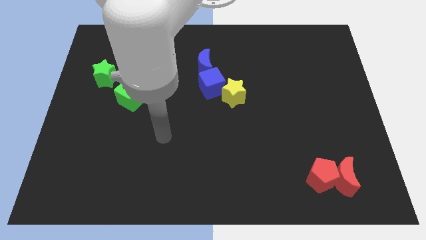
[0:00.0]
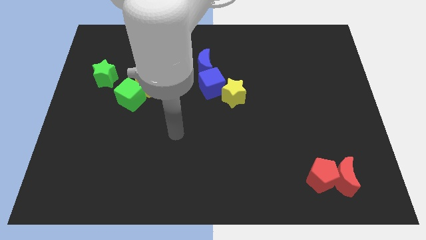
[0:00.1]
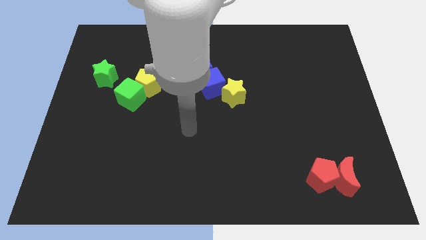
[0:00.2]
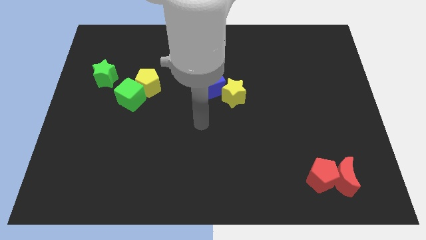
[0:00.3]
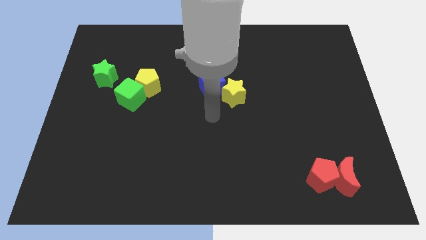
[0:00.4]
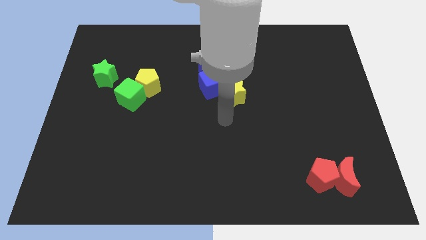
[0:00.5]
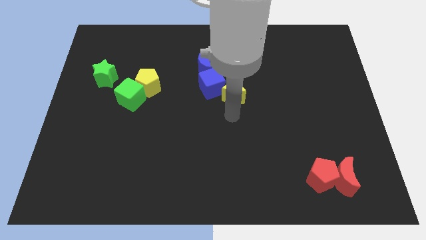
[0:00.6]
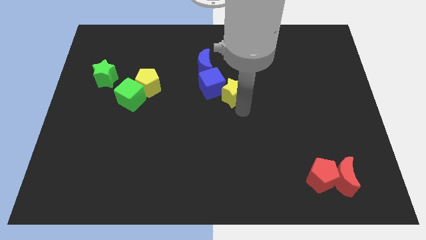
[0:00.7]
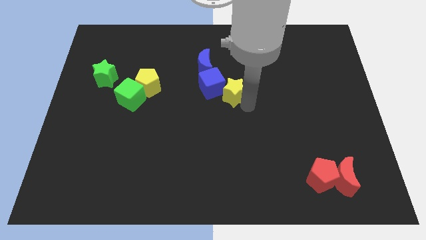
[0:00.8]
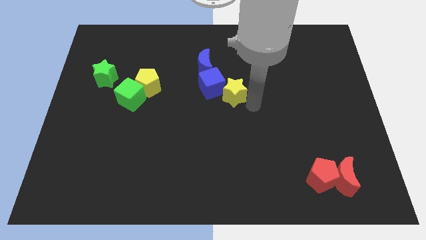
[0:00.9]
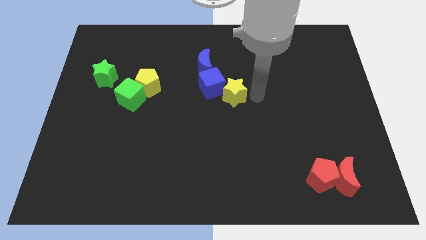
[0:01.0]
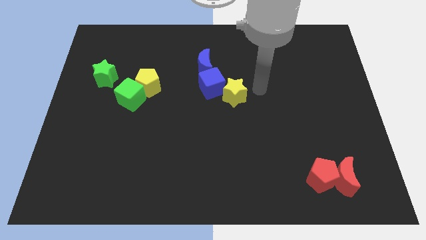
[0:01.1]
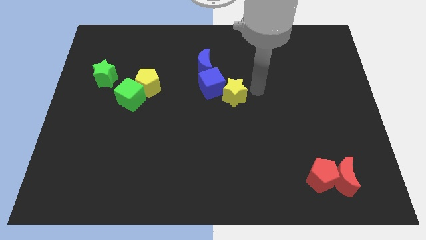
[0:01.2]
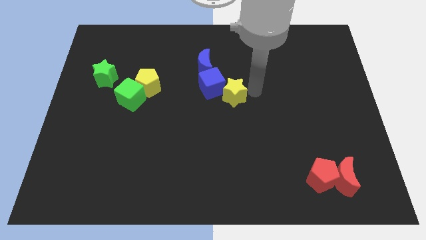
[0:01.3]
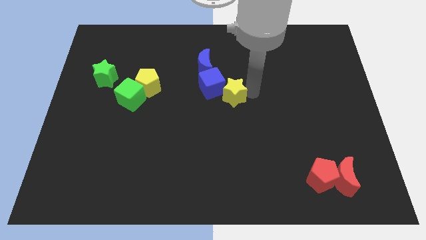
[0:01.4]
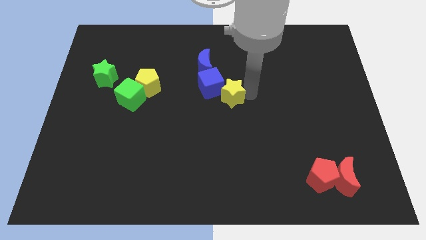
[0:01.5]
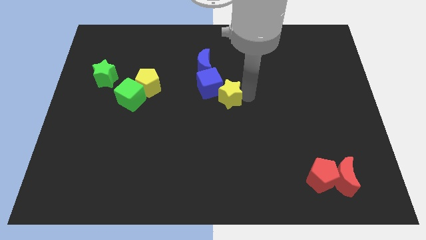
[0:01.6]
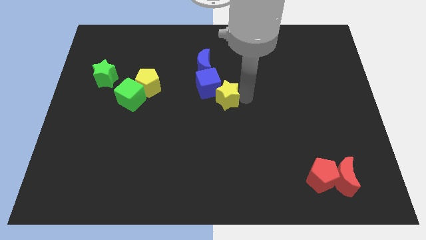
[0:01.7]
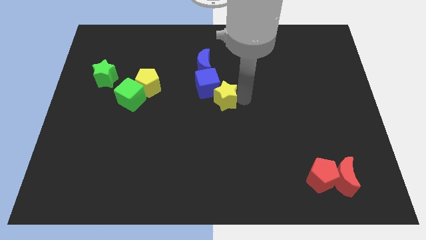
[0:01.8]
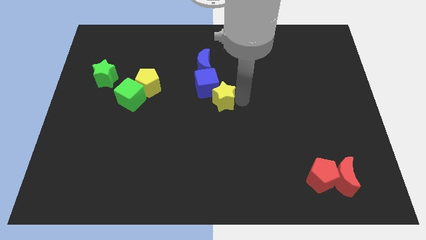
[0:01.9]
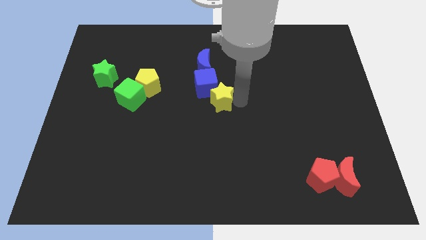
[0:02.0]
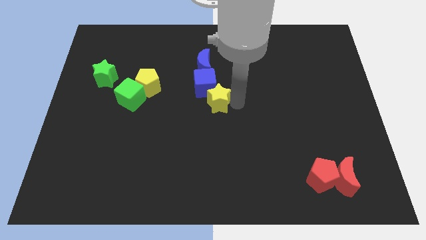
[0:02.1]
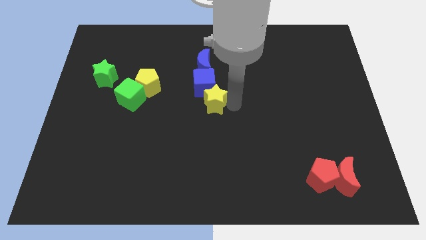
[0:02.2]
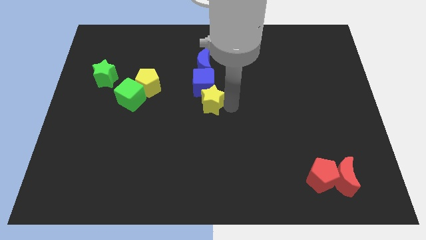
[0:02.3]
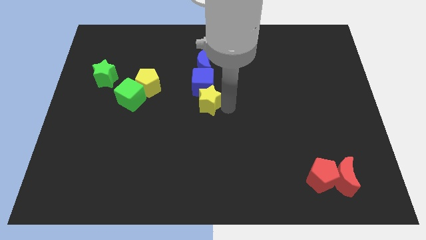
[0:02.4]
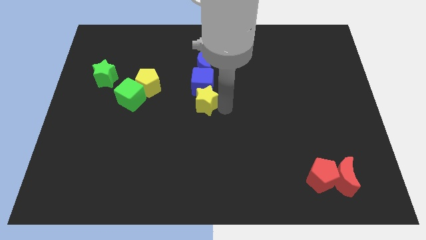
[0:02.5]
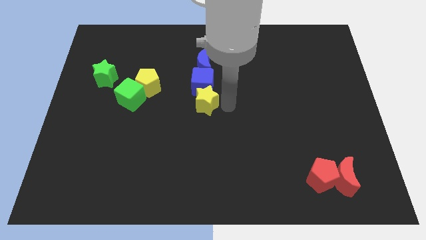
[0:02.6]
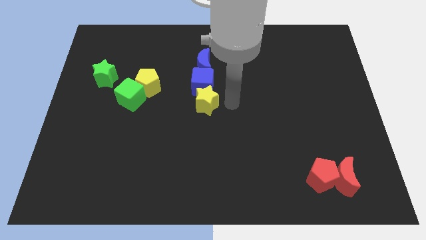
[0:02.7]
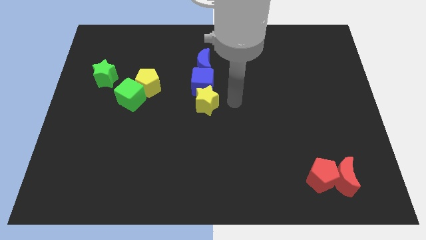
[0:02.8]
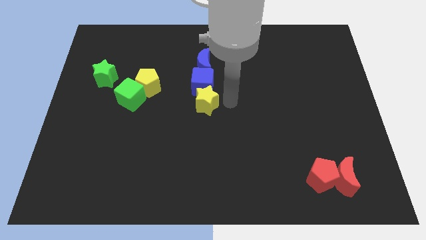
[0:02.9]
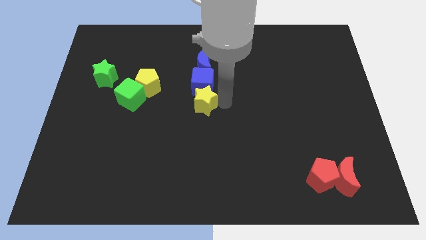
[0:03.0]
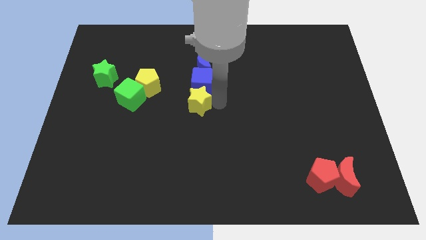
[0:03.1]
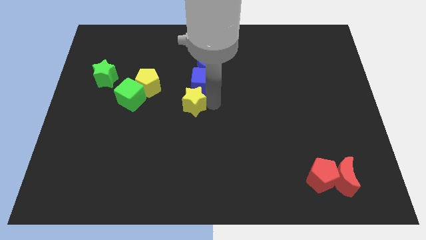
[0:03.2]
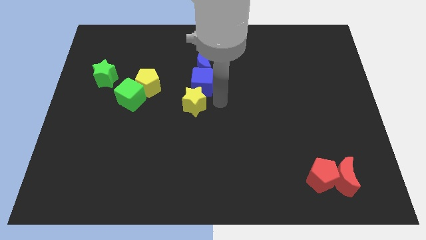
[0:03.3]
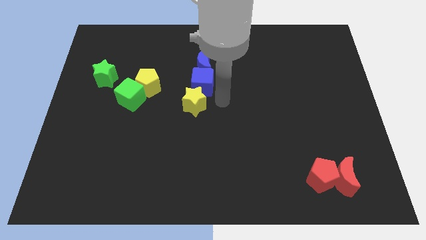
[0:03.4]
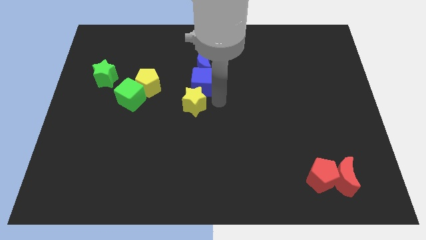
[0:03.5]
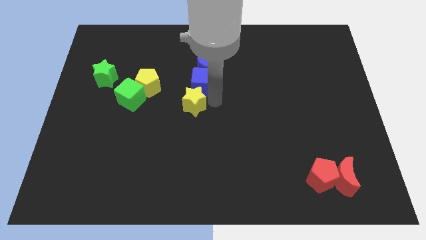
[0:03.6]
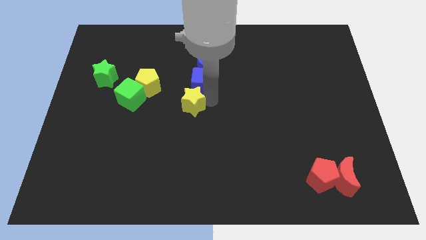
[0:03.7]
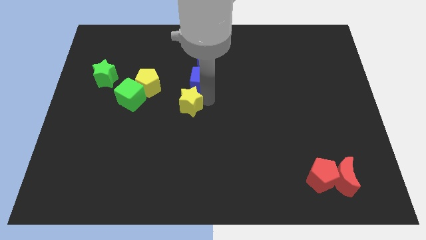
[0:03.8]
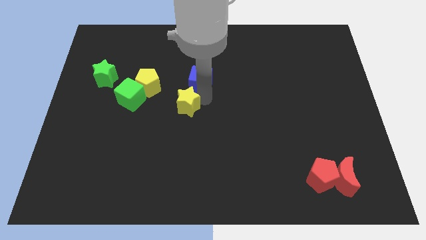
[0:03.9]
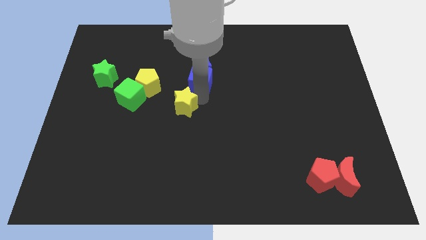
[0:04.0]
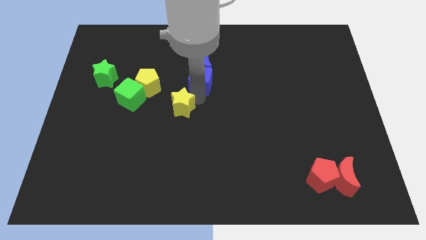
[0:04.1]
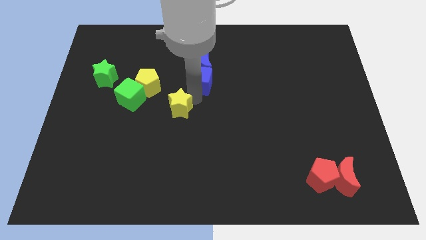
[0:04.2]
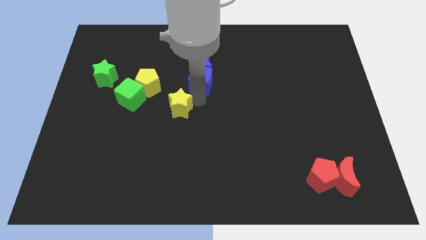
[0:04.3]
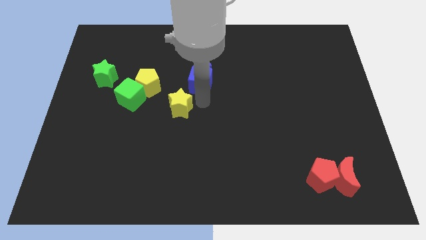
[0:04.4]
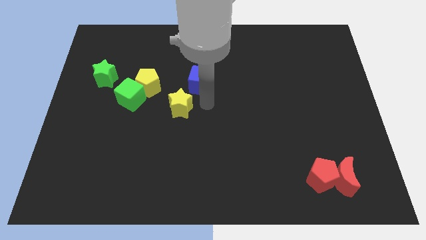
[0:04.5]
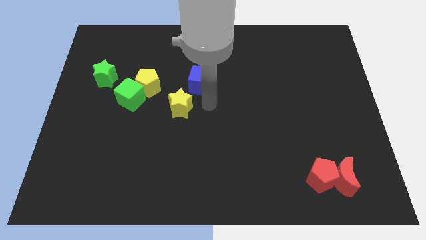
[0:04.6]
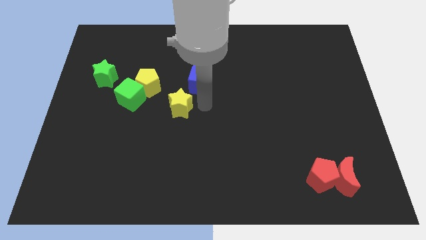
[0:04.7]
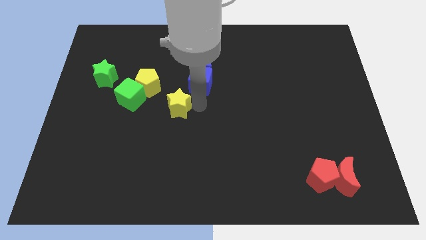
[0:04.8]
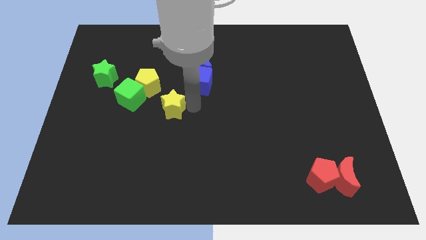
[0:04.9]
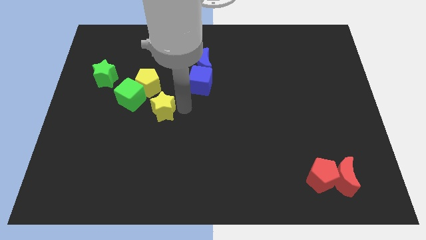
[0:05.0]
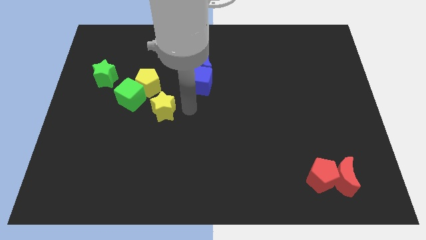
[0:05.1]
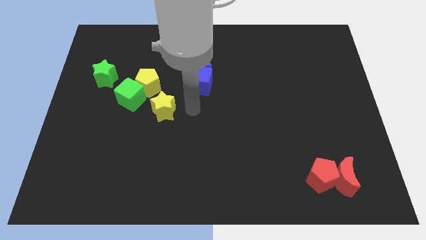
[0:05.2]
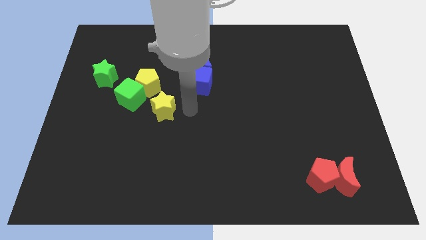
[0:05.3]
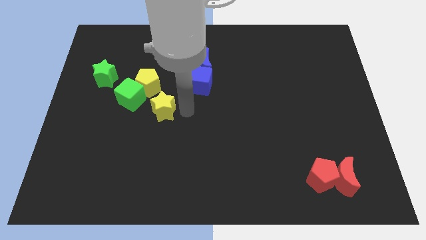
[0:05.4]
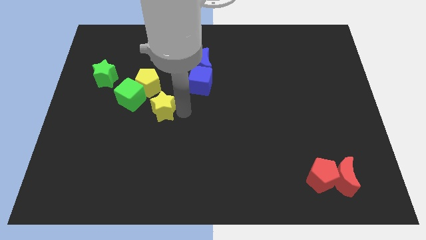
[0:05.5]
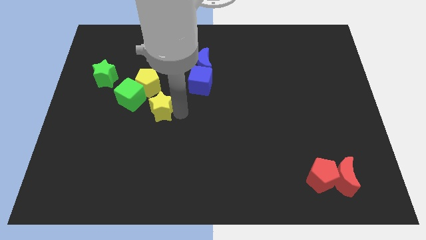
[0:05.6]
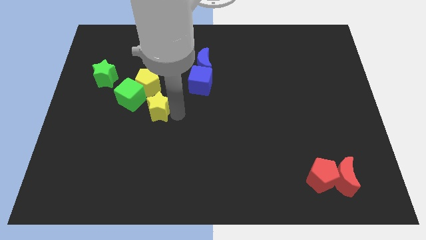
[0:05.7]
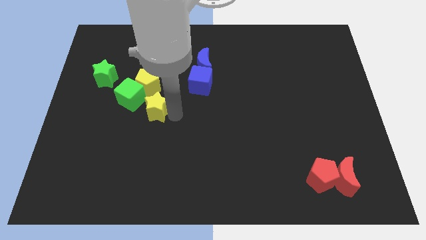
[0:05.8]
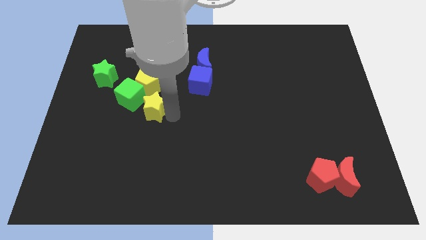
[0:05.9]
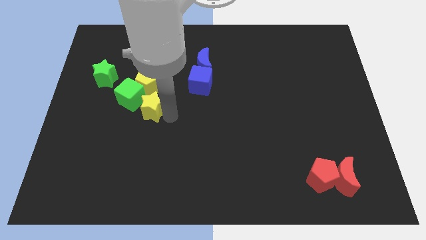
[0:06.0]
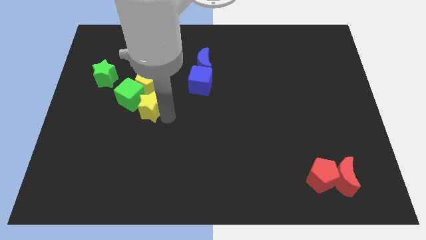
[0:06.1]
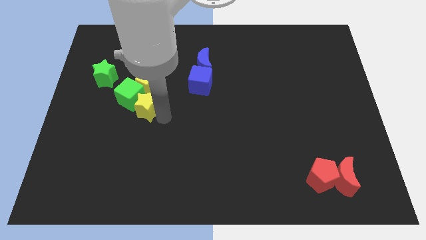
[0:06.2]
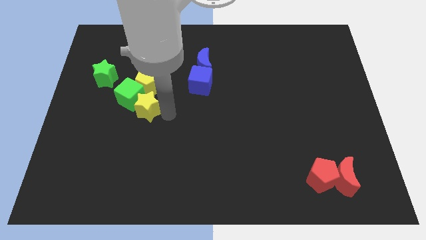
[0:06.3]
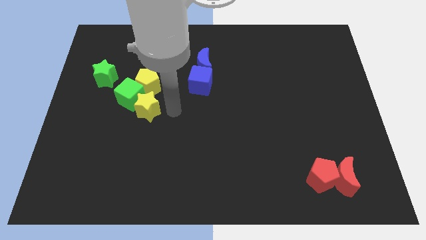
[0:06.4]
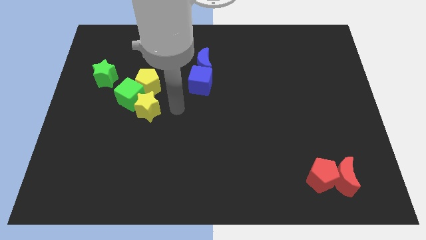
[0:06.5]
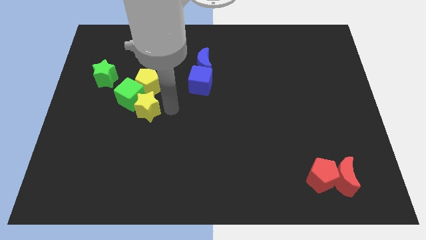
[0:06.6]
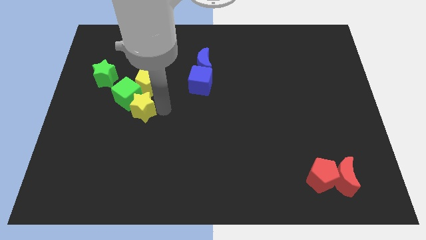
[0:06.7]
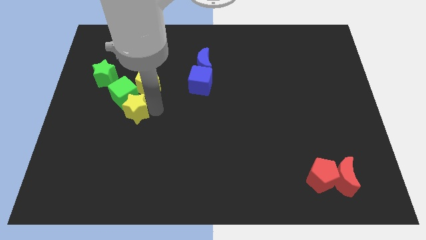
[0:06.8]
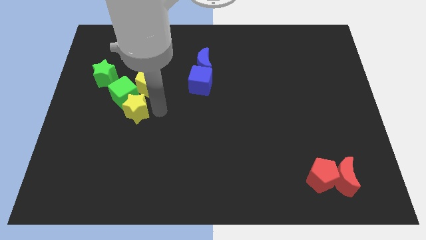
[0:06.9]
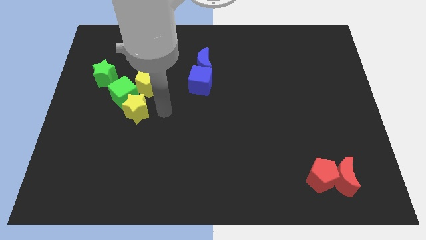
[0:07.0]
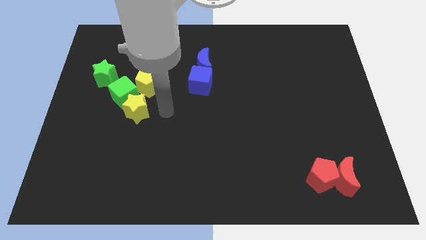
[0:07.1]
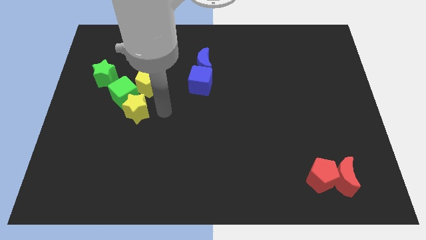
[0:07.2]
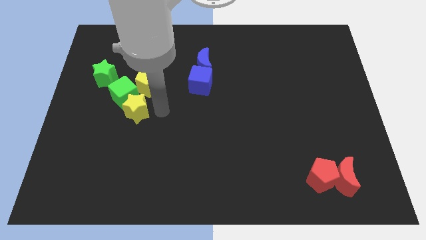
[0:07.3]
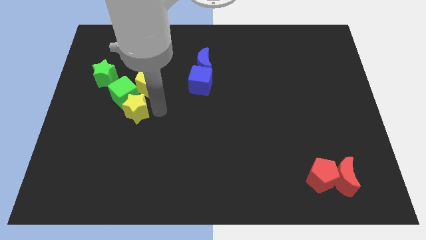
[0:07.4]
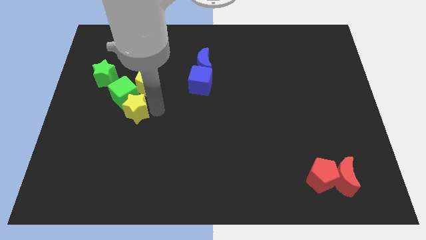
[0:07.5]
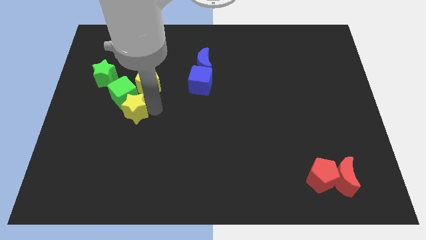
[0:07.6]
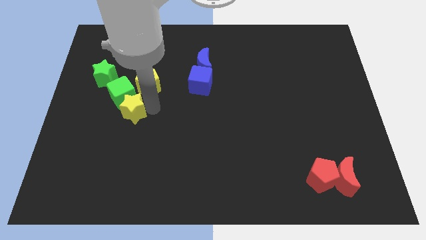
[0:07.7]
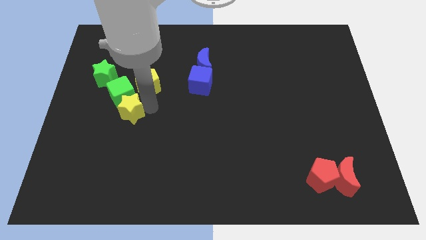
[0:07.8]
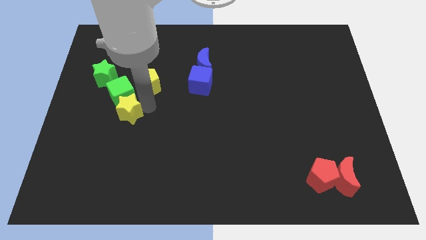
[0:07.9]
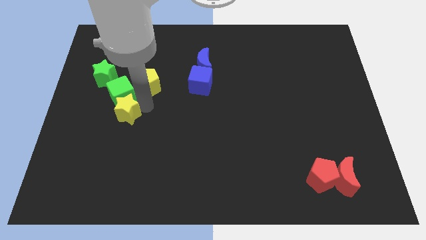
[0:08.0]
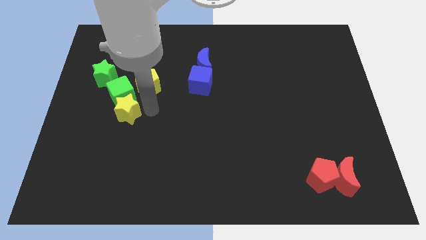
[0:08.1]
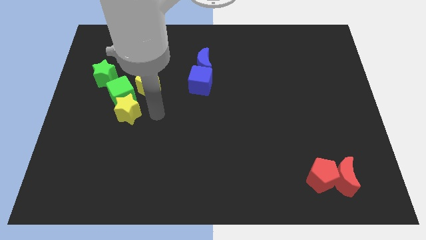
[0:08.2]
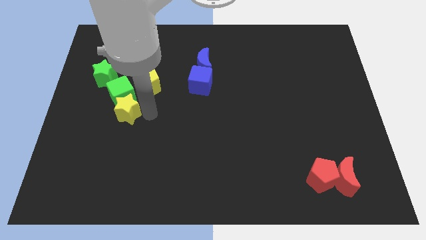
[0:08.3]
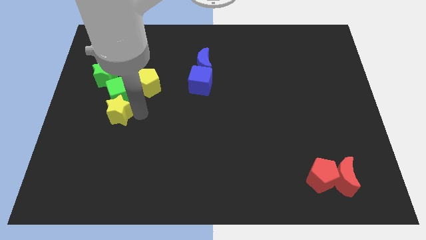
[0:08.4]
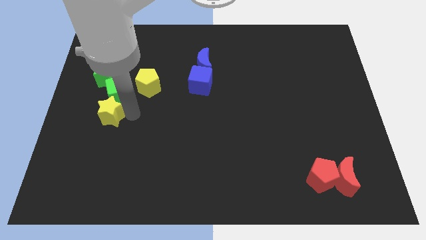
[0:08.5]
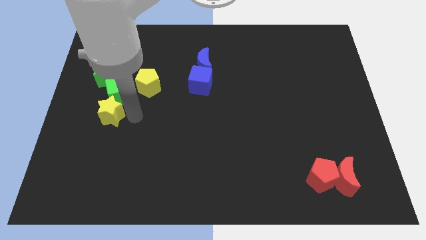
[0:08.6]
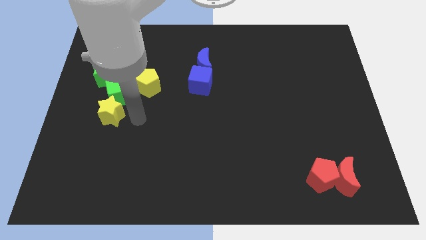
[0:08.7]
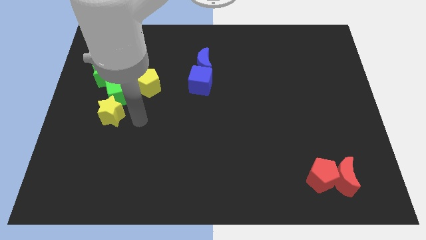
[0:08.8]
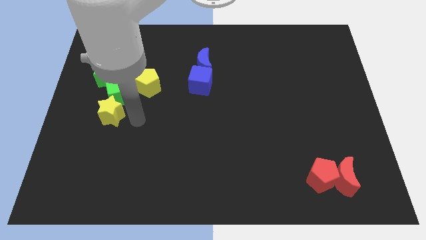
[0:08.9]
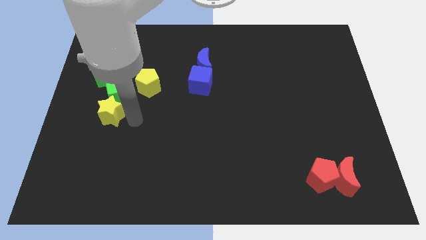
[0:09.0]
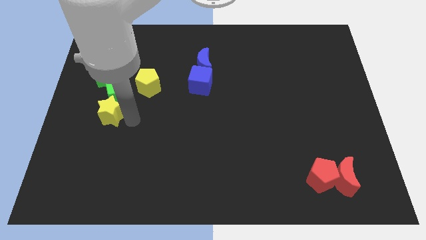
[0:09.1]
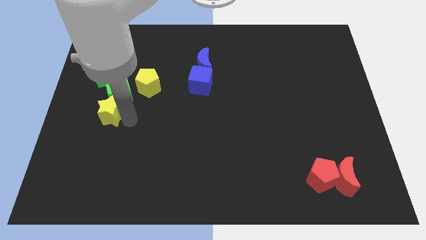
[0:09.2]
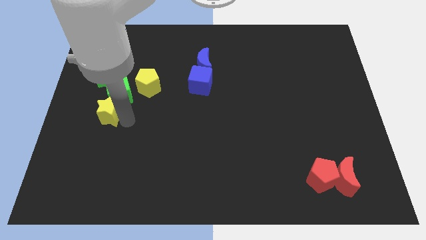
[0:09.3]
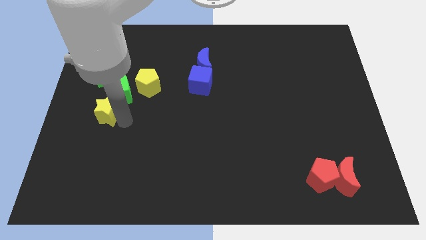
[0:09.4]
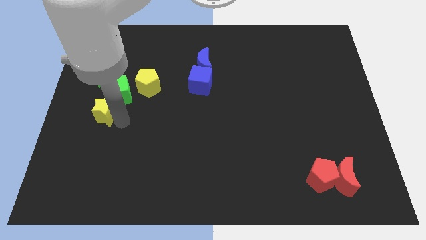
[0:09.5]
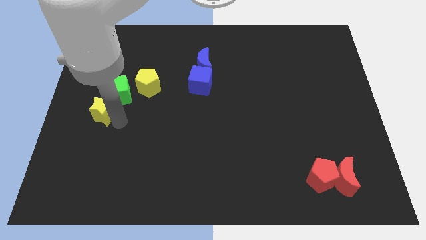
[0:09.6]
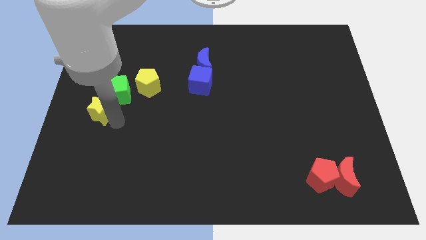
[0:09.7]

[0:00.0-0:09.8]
push the yellow star to the left side
